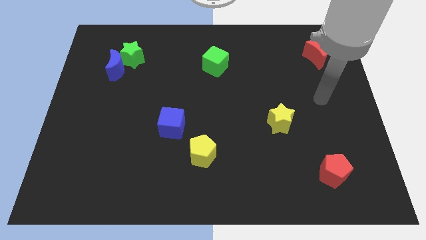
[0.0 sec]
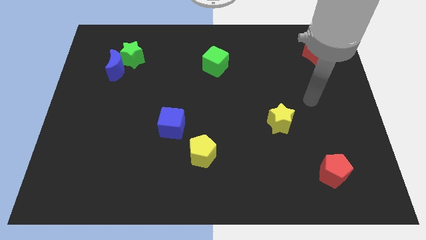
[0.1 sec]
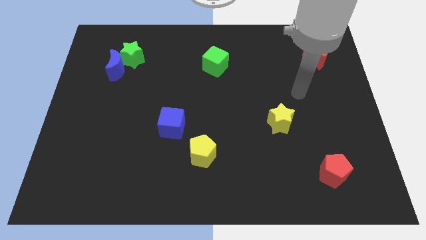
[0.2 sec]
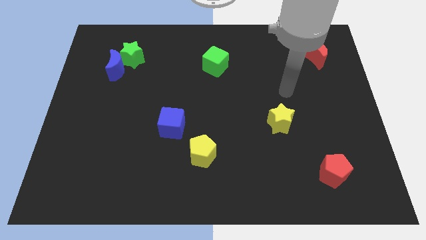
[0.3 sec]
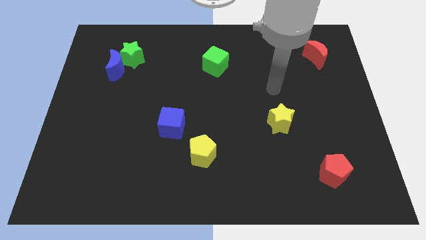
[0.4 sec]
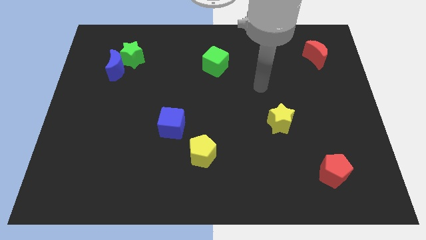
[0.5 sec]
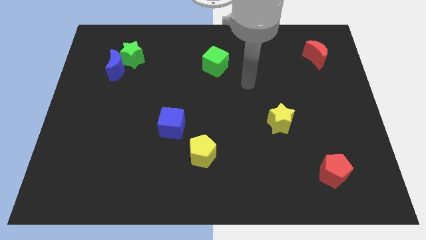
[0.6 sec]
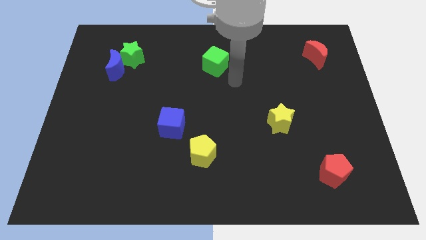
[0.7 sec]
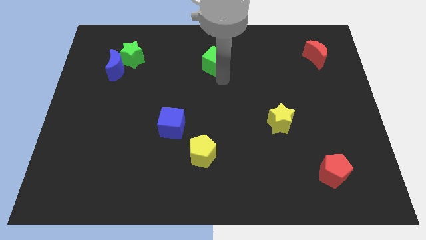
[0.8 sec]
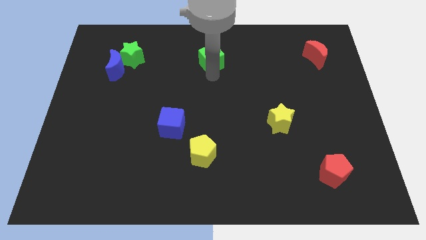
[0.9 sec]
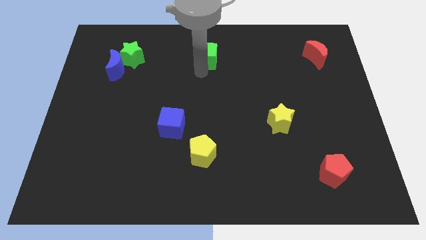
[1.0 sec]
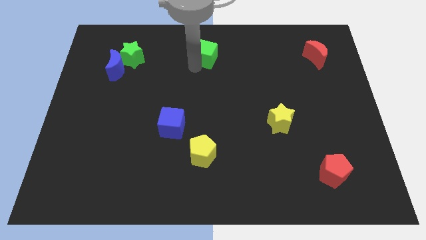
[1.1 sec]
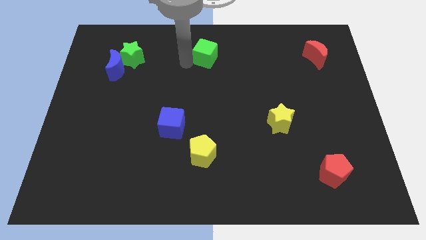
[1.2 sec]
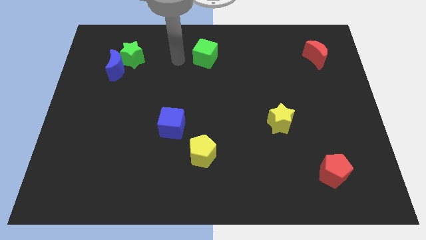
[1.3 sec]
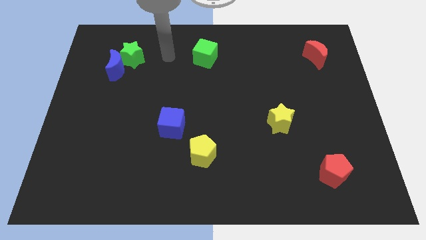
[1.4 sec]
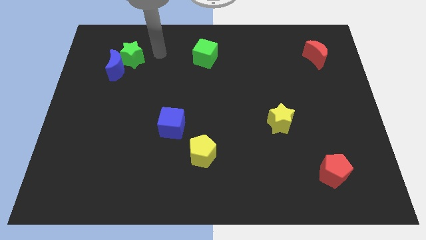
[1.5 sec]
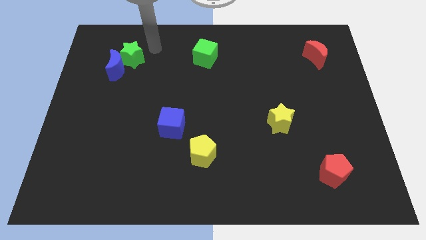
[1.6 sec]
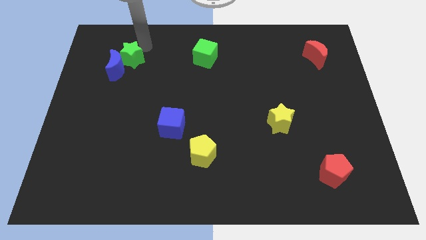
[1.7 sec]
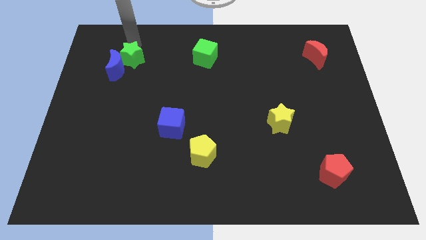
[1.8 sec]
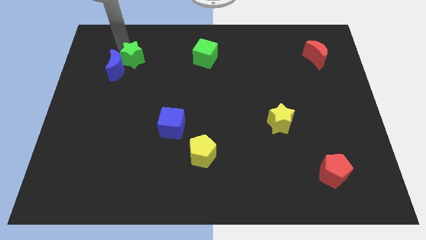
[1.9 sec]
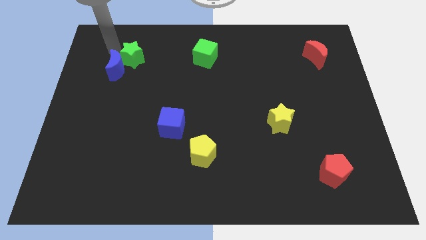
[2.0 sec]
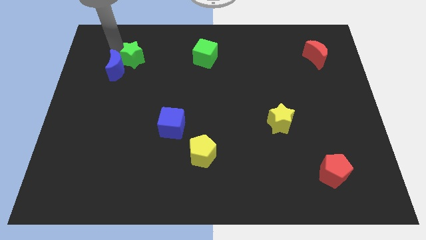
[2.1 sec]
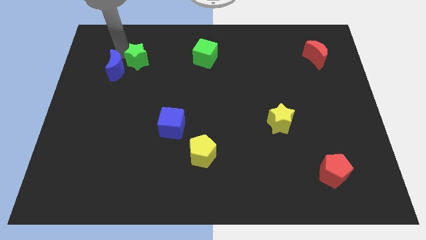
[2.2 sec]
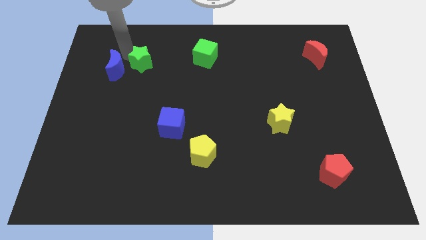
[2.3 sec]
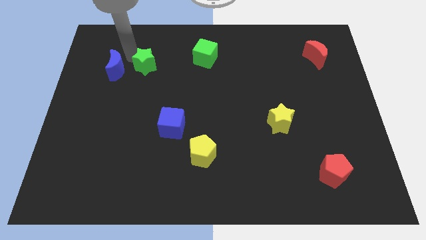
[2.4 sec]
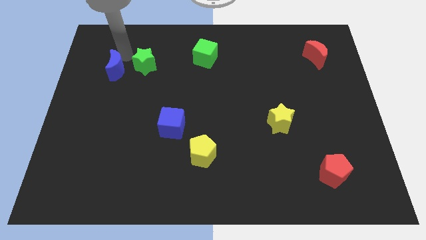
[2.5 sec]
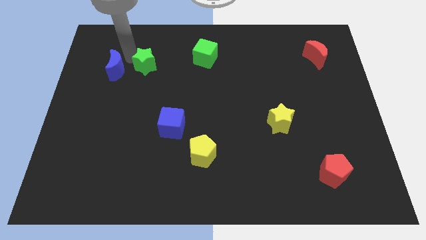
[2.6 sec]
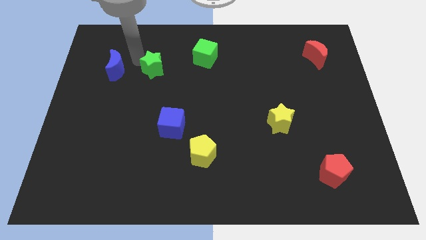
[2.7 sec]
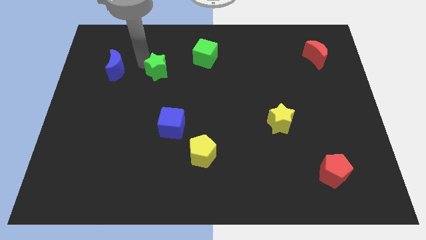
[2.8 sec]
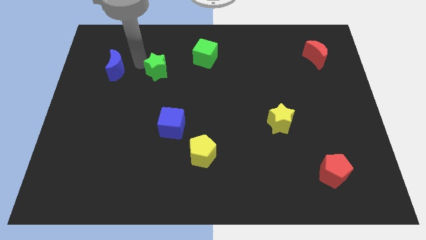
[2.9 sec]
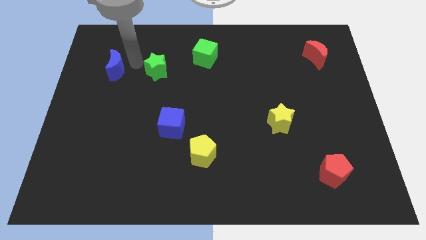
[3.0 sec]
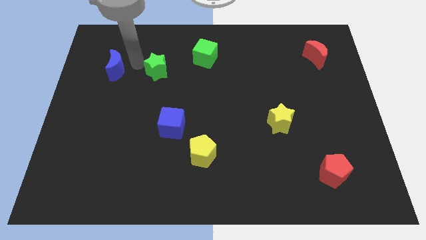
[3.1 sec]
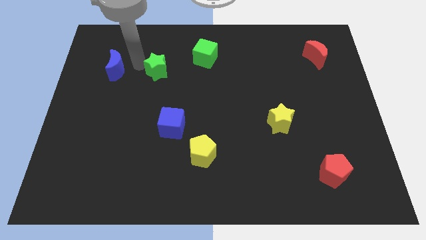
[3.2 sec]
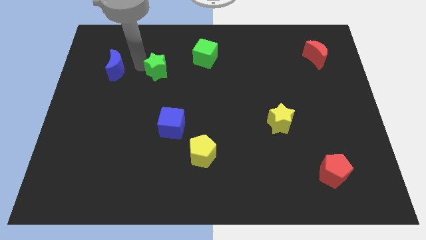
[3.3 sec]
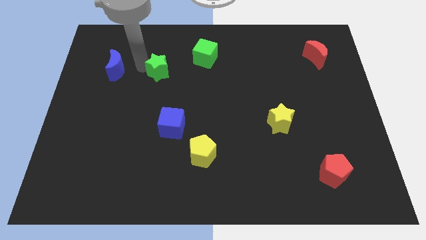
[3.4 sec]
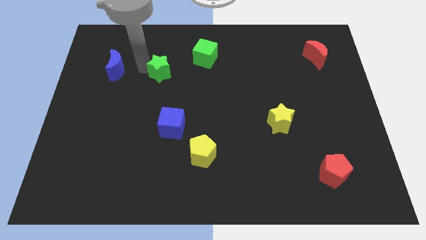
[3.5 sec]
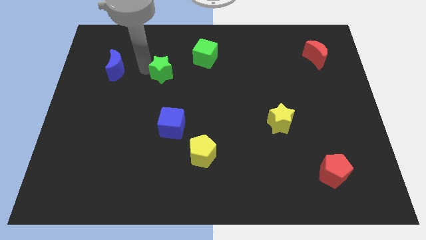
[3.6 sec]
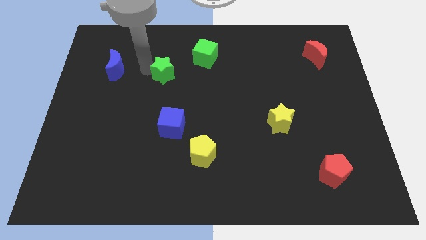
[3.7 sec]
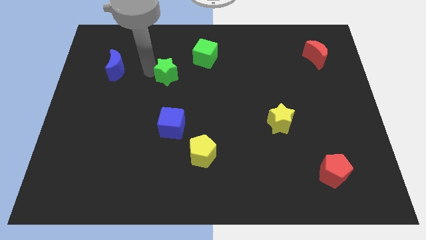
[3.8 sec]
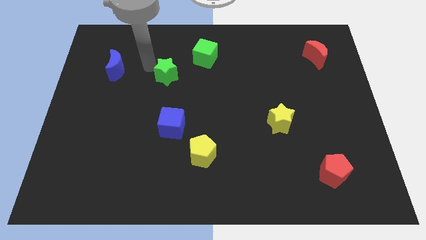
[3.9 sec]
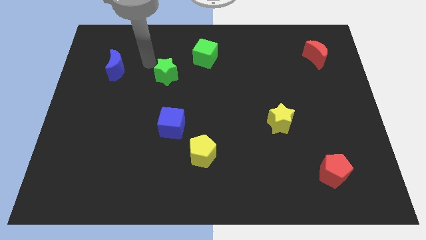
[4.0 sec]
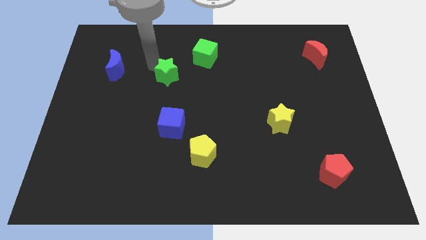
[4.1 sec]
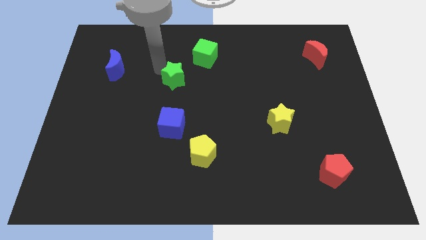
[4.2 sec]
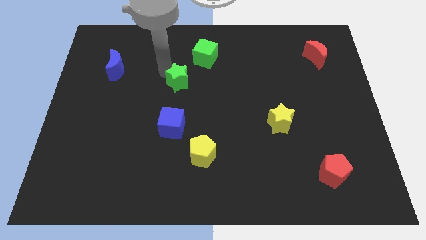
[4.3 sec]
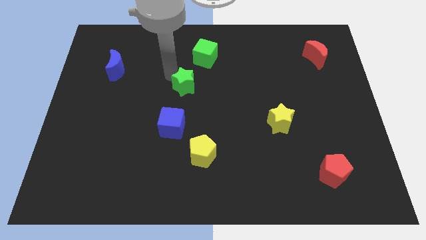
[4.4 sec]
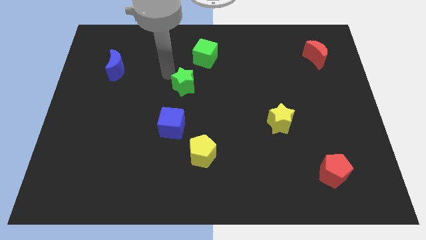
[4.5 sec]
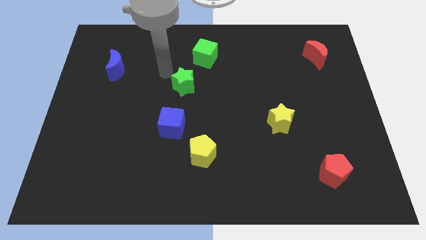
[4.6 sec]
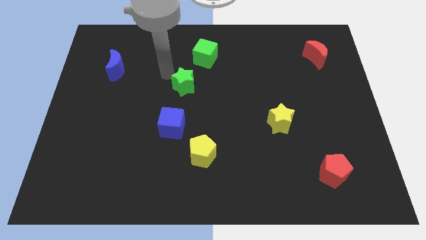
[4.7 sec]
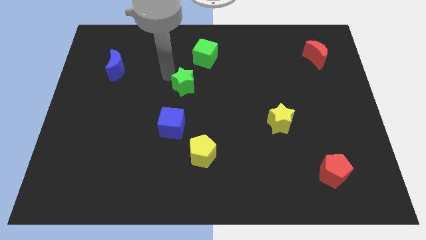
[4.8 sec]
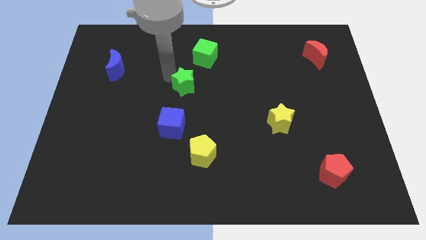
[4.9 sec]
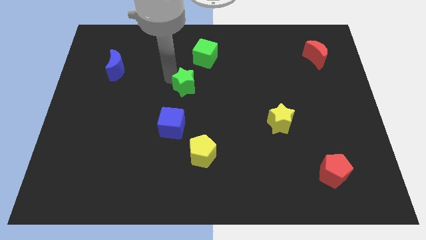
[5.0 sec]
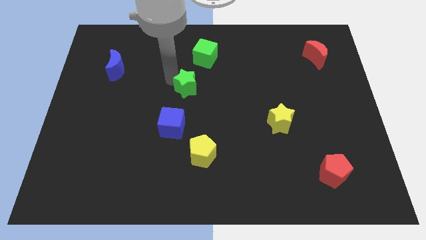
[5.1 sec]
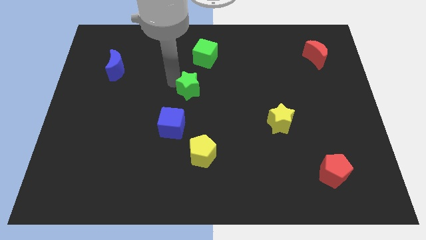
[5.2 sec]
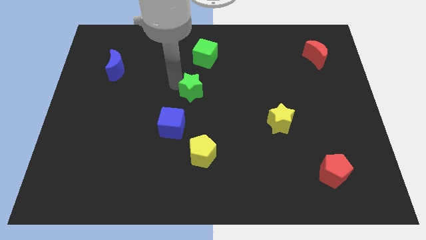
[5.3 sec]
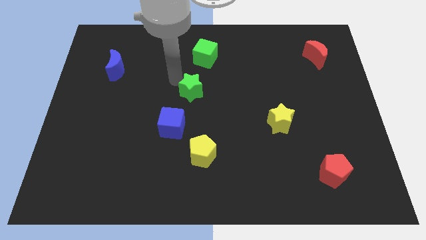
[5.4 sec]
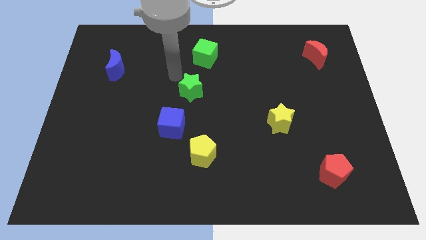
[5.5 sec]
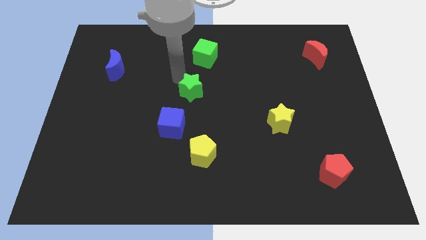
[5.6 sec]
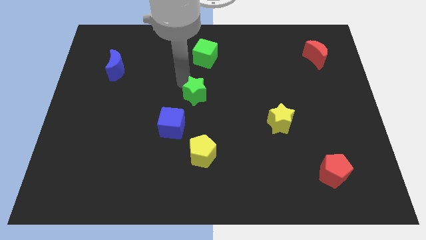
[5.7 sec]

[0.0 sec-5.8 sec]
slide the green star downwards and to the right

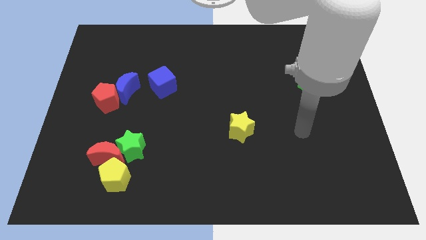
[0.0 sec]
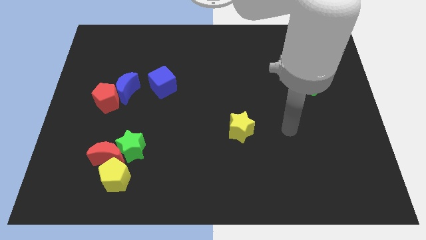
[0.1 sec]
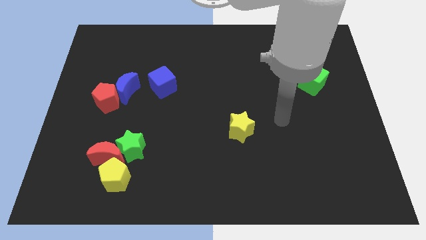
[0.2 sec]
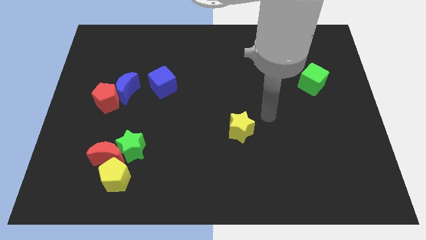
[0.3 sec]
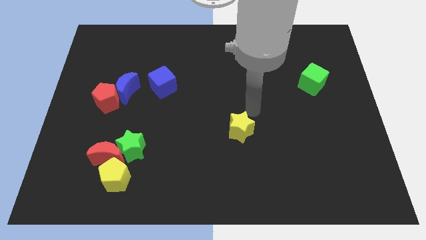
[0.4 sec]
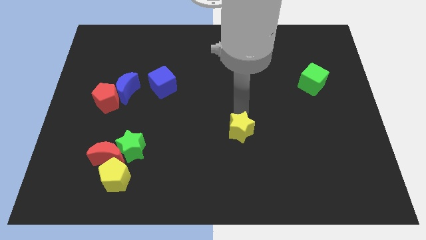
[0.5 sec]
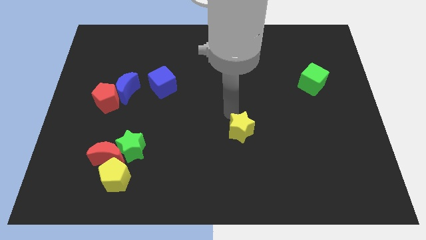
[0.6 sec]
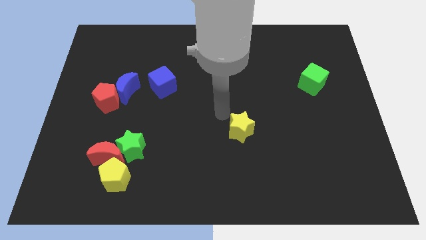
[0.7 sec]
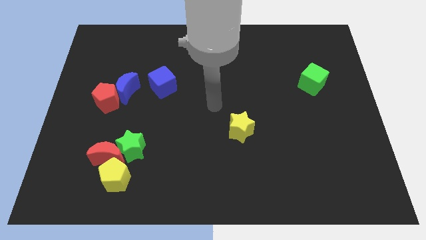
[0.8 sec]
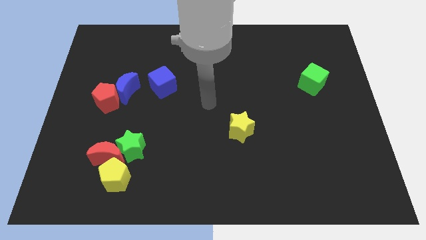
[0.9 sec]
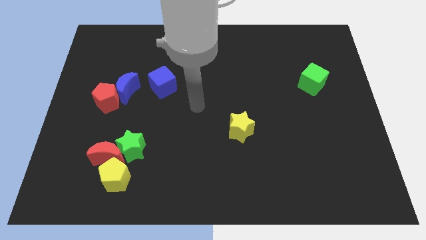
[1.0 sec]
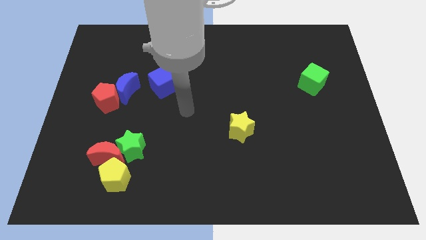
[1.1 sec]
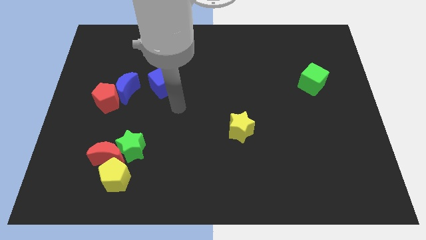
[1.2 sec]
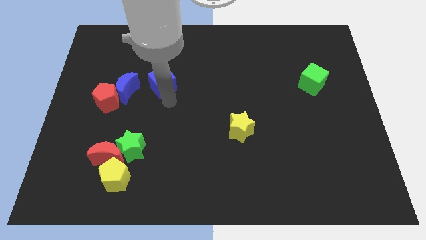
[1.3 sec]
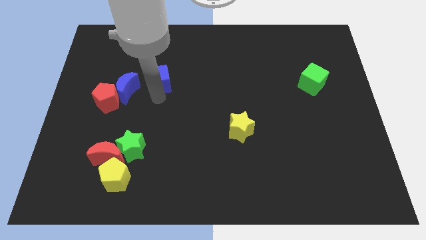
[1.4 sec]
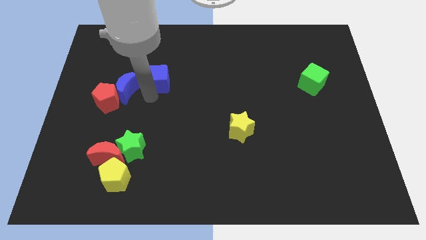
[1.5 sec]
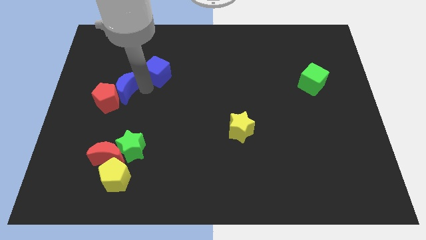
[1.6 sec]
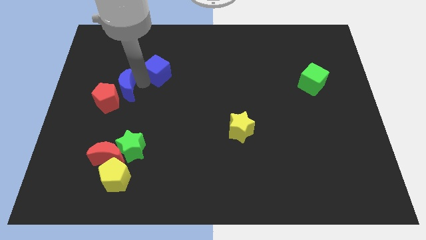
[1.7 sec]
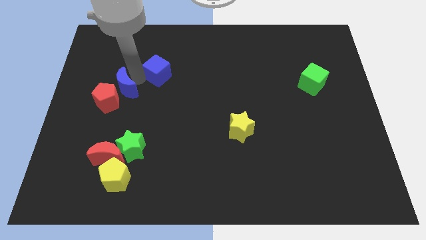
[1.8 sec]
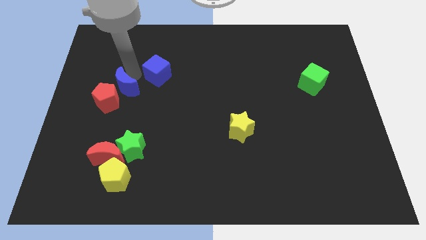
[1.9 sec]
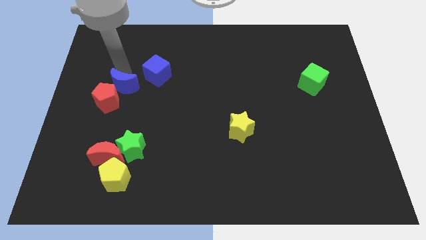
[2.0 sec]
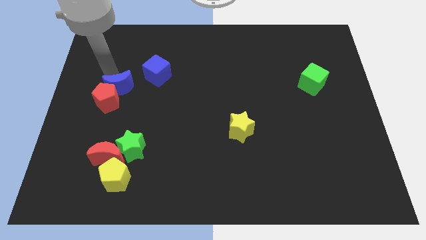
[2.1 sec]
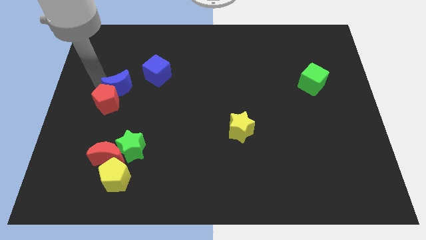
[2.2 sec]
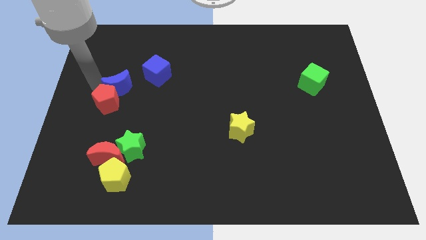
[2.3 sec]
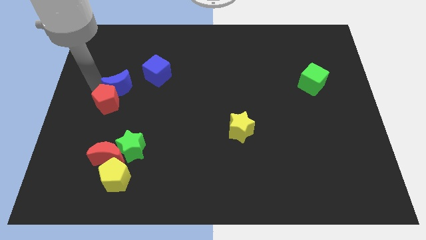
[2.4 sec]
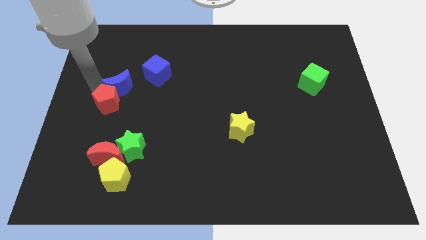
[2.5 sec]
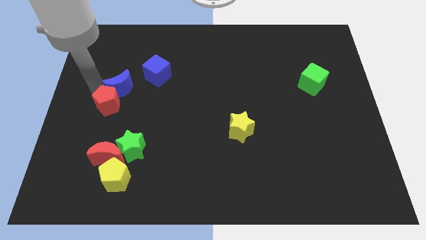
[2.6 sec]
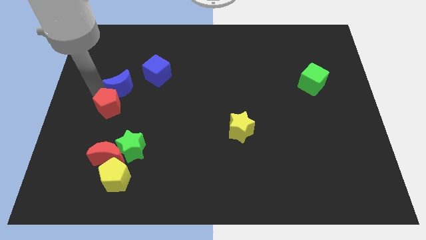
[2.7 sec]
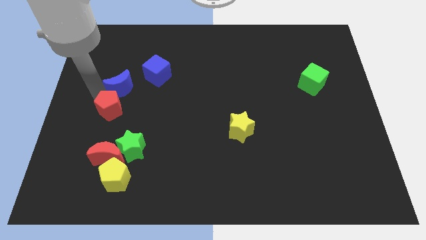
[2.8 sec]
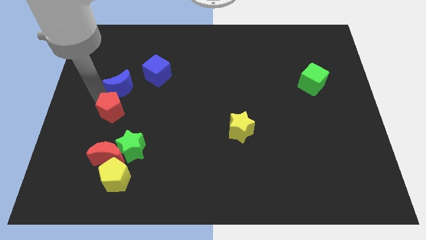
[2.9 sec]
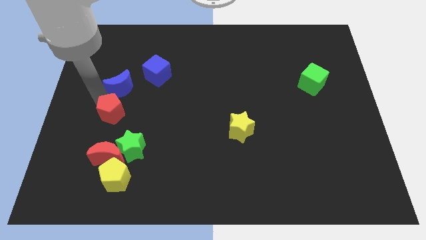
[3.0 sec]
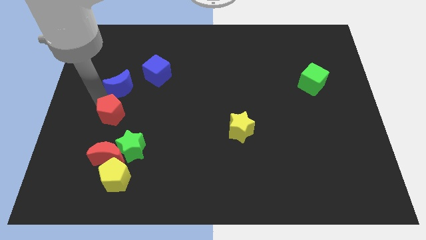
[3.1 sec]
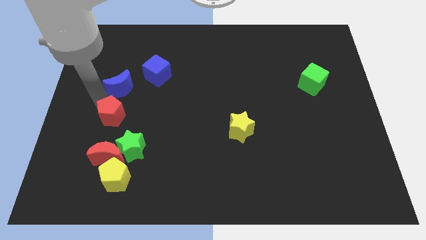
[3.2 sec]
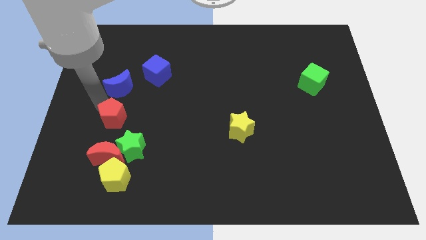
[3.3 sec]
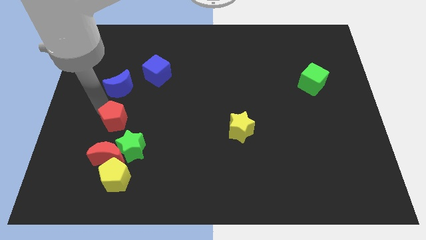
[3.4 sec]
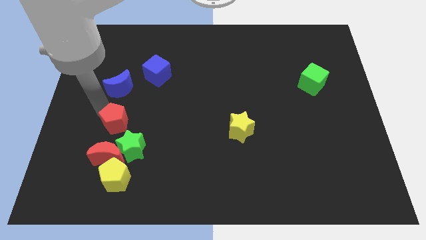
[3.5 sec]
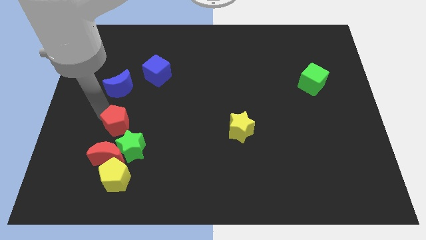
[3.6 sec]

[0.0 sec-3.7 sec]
slightly move the red pentagon downwards and then to the right
